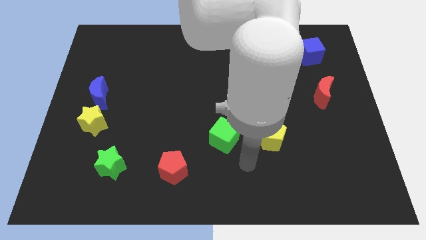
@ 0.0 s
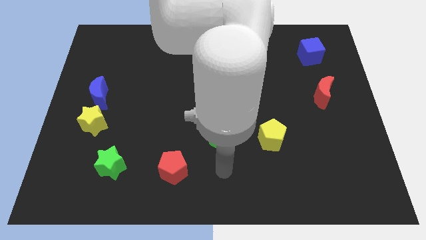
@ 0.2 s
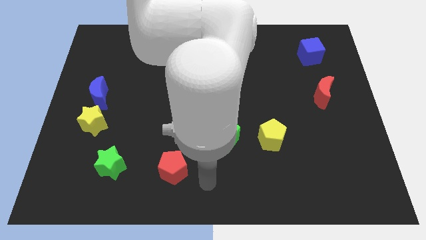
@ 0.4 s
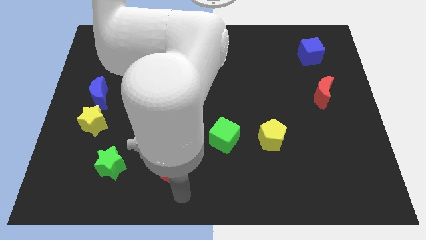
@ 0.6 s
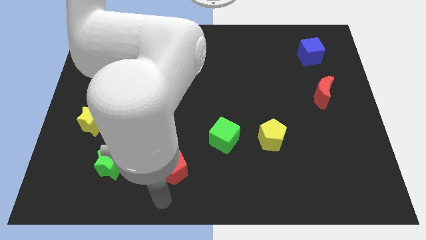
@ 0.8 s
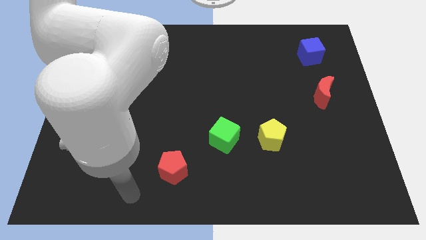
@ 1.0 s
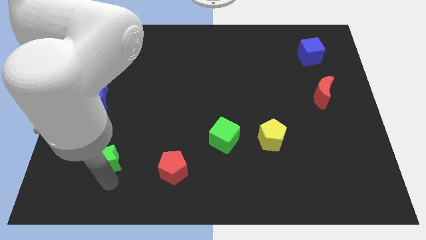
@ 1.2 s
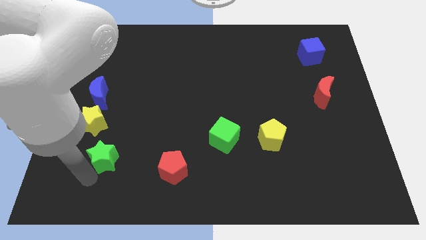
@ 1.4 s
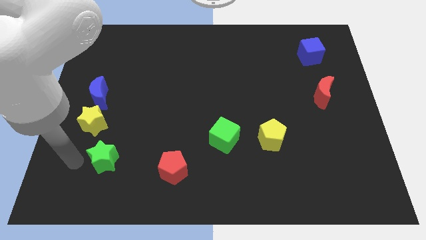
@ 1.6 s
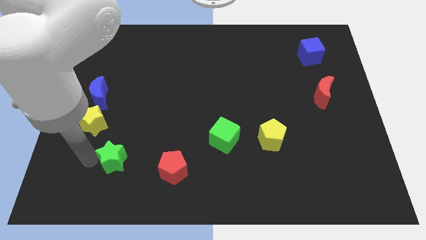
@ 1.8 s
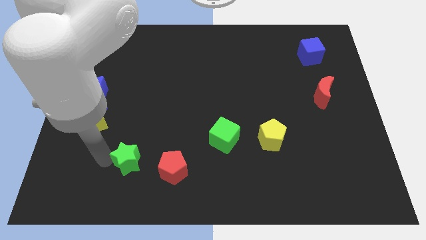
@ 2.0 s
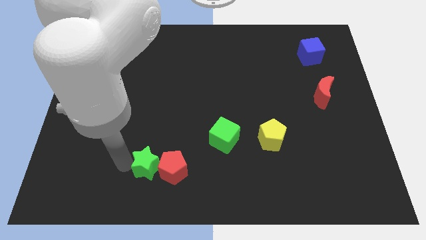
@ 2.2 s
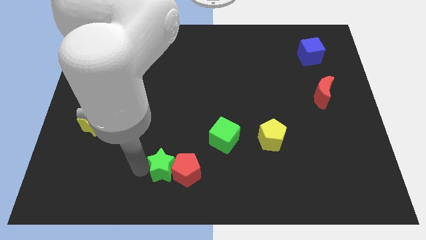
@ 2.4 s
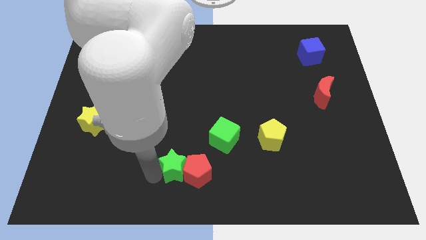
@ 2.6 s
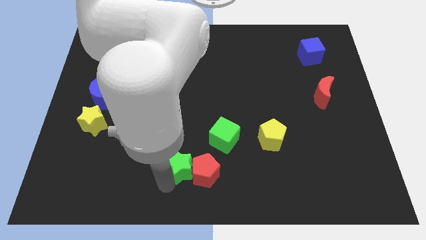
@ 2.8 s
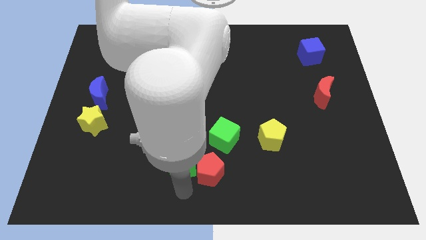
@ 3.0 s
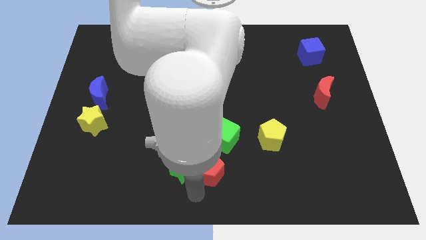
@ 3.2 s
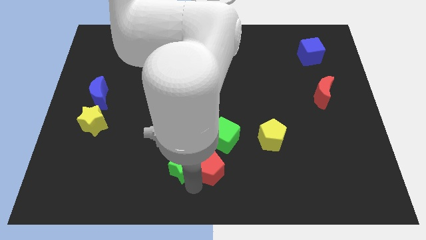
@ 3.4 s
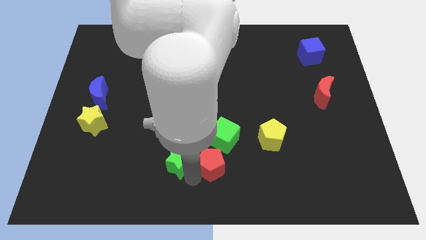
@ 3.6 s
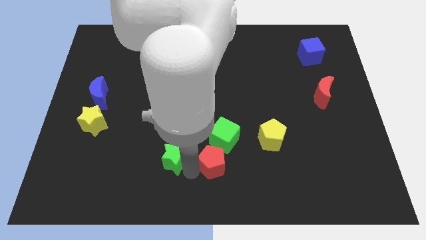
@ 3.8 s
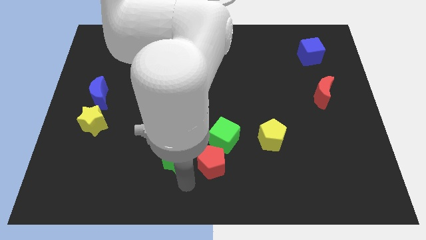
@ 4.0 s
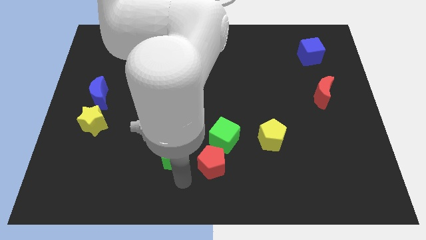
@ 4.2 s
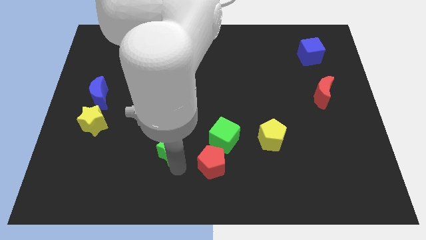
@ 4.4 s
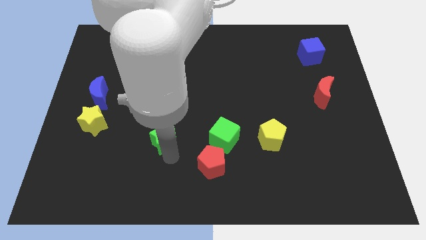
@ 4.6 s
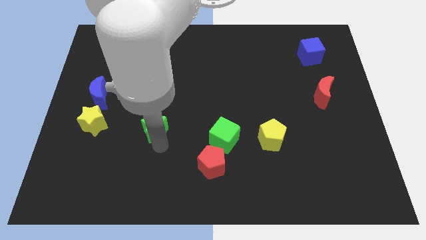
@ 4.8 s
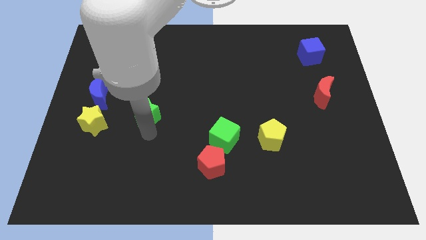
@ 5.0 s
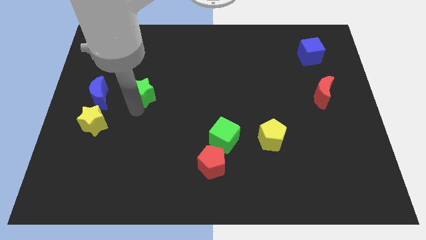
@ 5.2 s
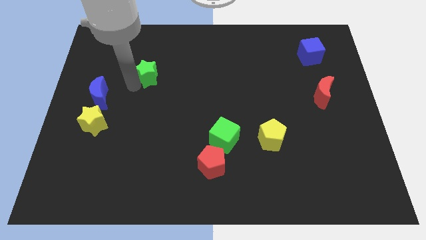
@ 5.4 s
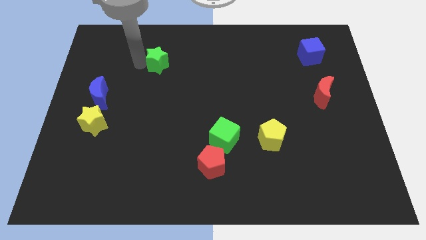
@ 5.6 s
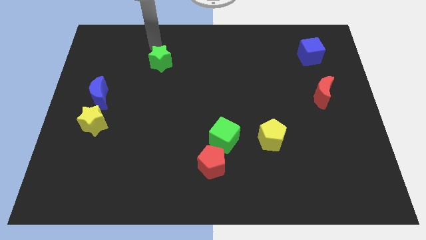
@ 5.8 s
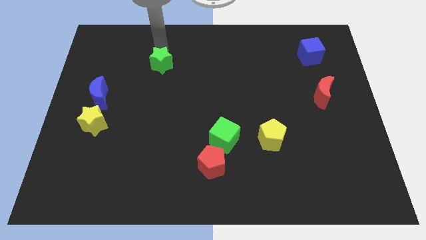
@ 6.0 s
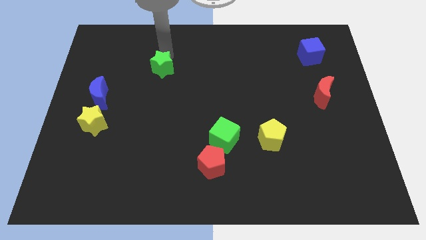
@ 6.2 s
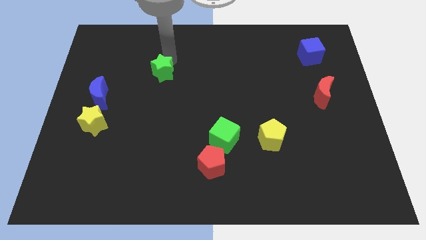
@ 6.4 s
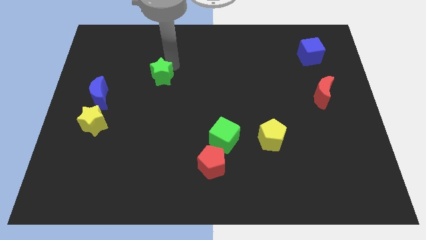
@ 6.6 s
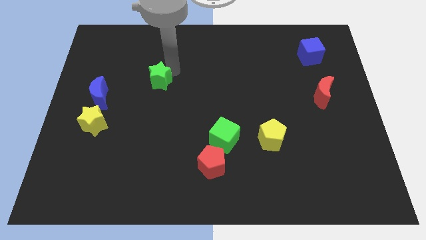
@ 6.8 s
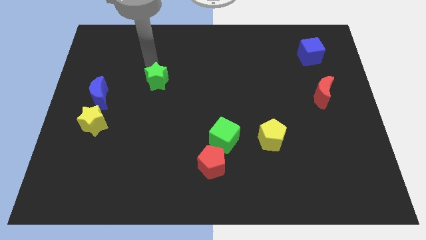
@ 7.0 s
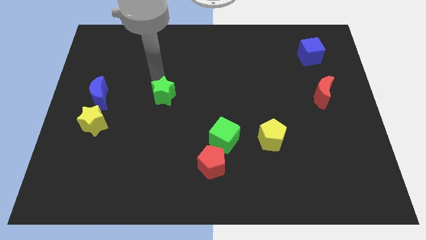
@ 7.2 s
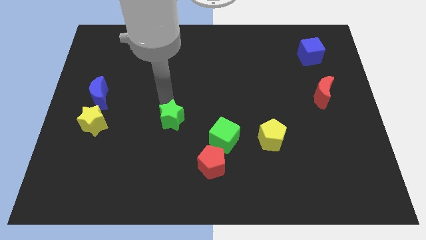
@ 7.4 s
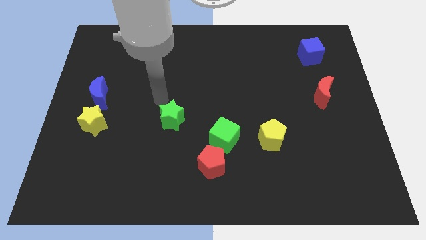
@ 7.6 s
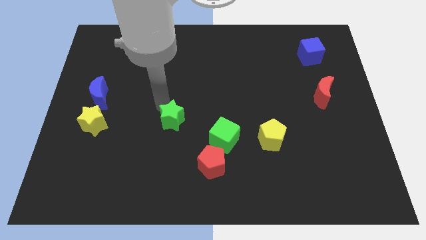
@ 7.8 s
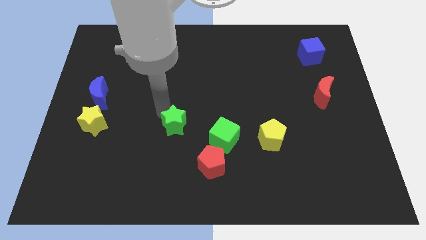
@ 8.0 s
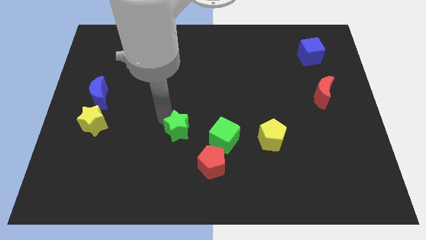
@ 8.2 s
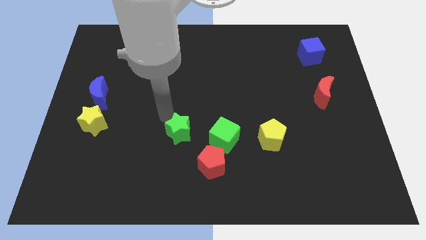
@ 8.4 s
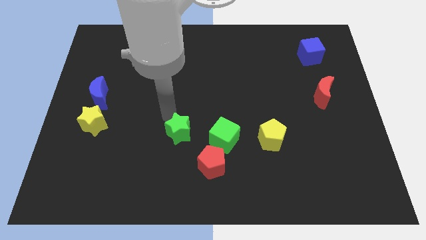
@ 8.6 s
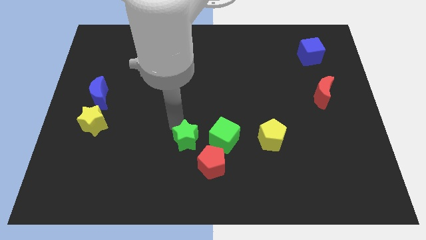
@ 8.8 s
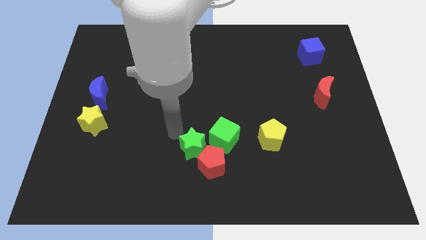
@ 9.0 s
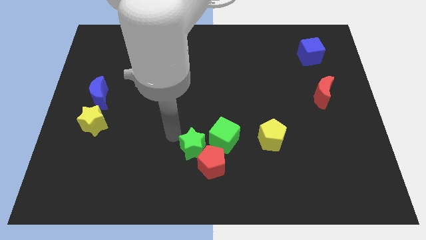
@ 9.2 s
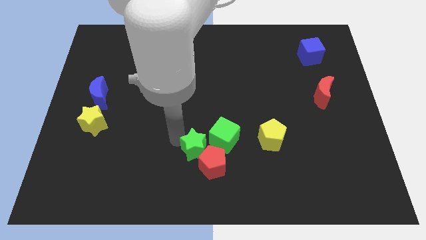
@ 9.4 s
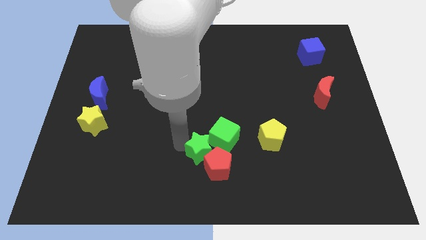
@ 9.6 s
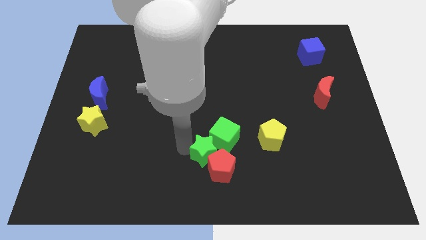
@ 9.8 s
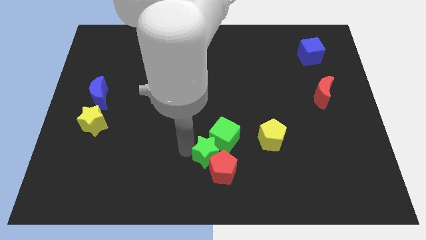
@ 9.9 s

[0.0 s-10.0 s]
move the green star right

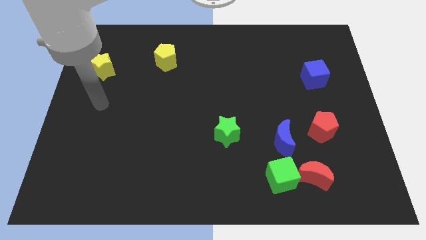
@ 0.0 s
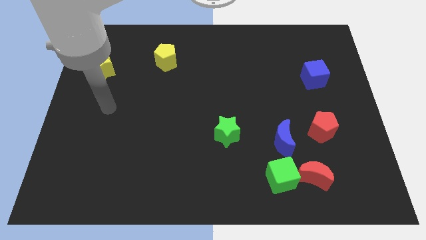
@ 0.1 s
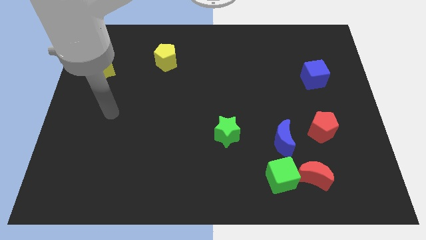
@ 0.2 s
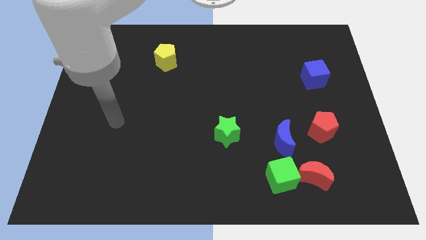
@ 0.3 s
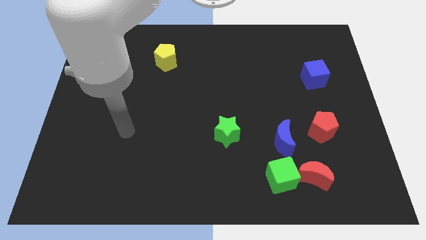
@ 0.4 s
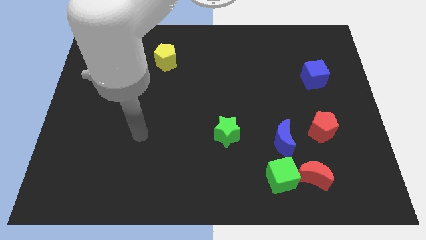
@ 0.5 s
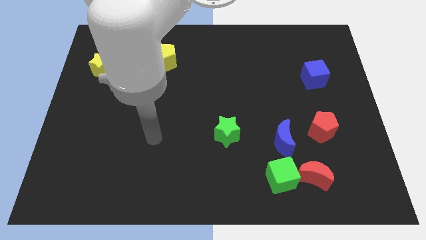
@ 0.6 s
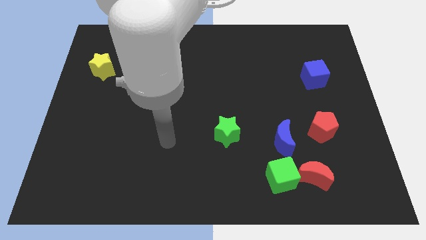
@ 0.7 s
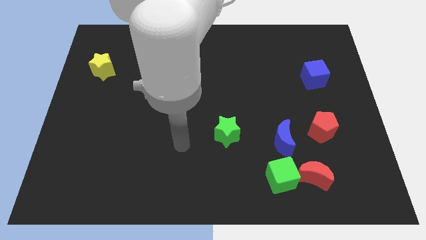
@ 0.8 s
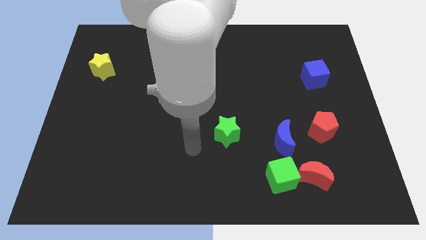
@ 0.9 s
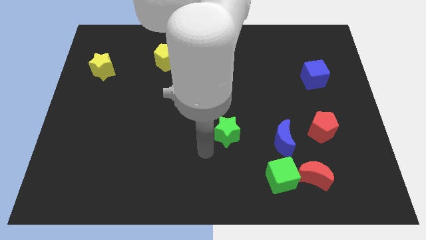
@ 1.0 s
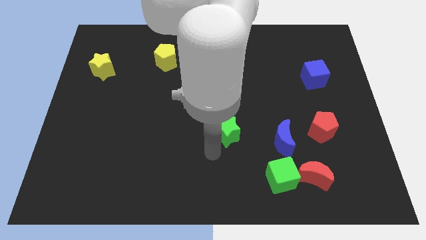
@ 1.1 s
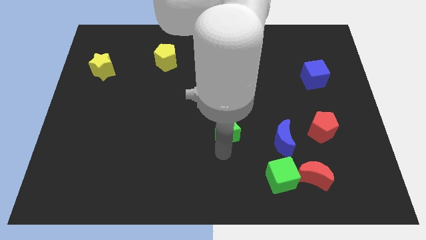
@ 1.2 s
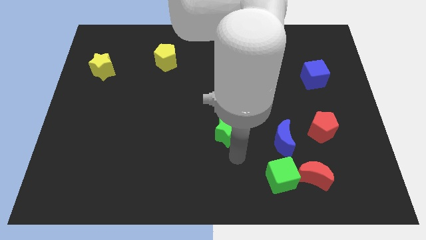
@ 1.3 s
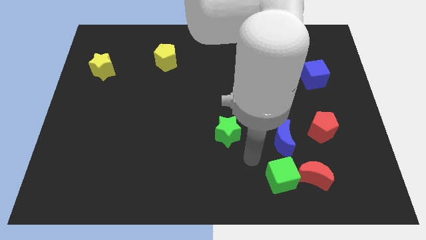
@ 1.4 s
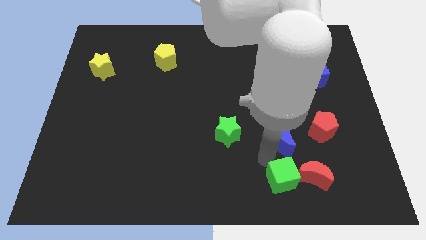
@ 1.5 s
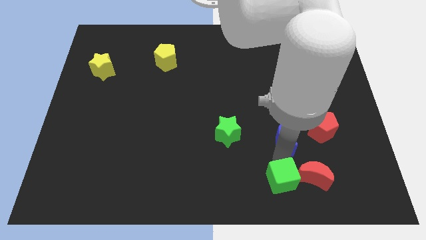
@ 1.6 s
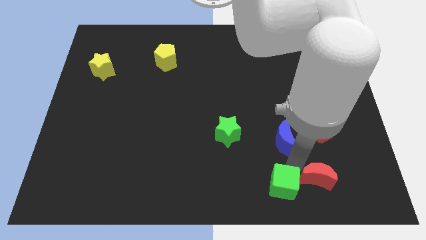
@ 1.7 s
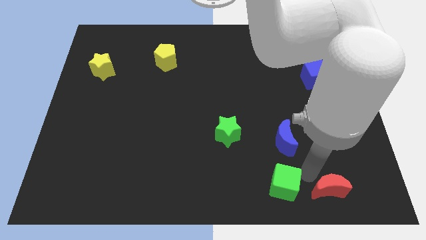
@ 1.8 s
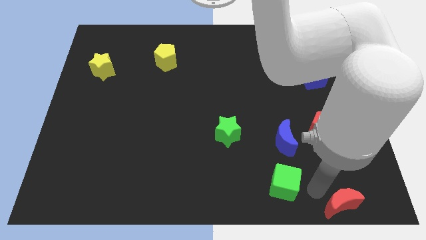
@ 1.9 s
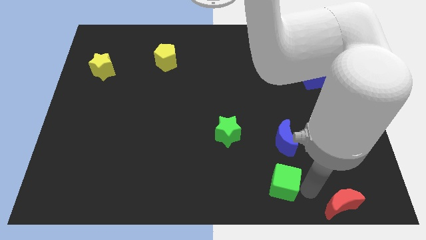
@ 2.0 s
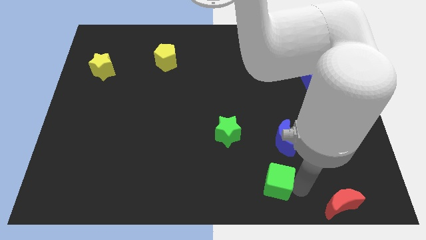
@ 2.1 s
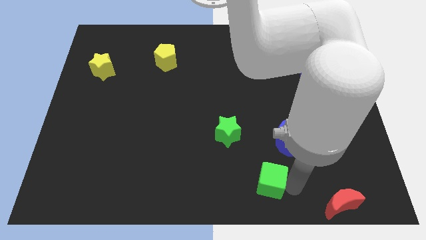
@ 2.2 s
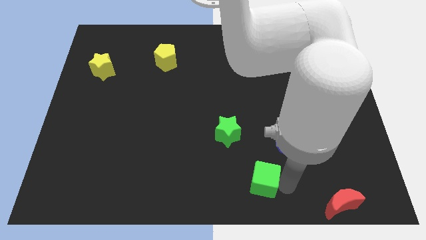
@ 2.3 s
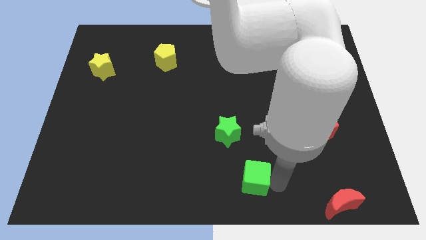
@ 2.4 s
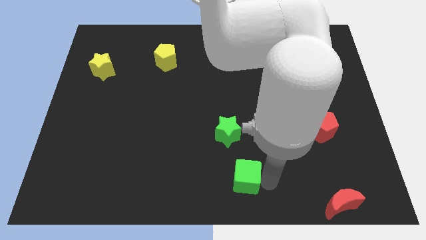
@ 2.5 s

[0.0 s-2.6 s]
slide the green cube a bit to the left

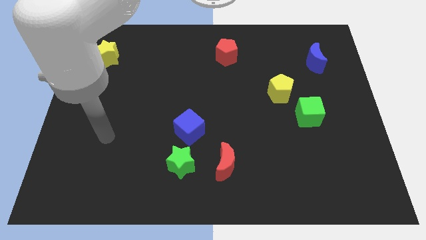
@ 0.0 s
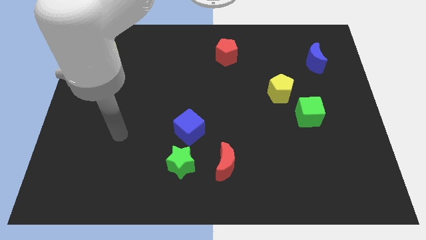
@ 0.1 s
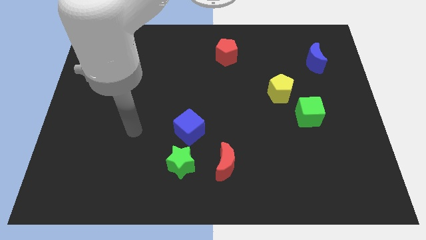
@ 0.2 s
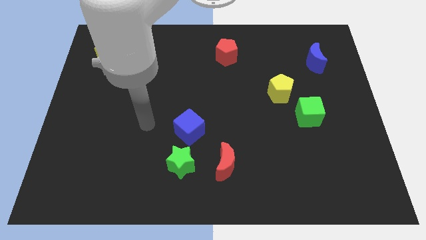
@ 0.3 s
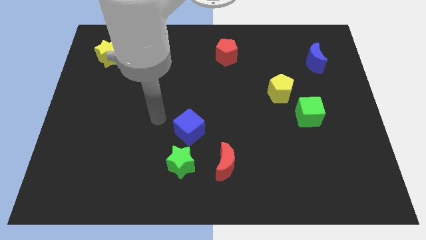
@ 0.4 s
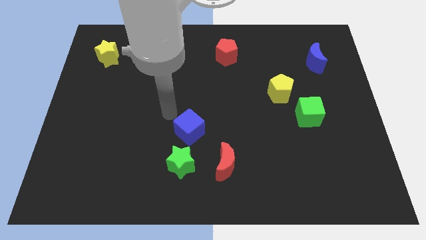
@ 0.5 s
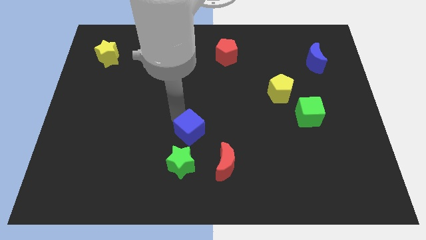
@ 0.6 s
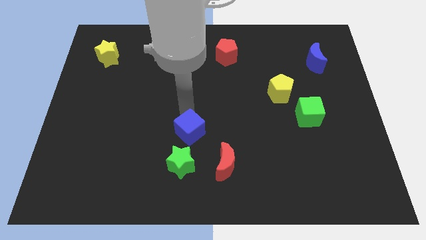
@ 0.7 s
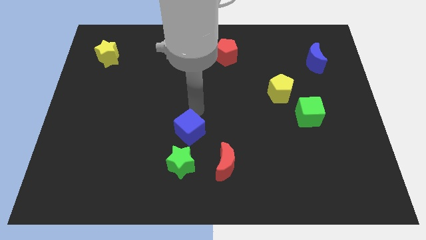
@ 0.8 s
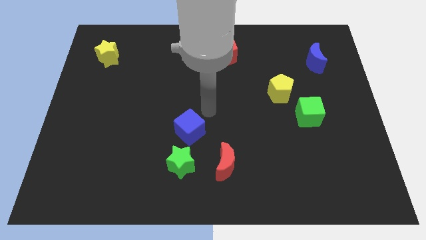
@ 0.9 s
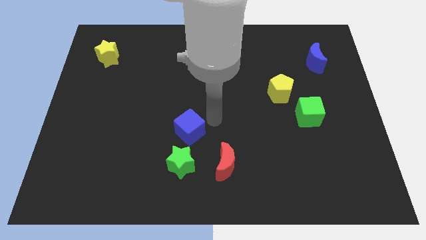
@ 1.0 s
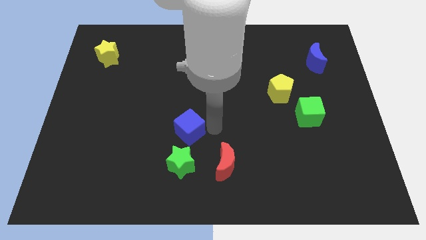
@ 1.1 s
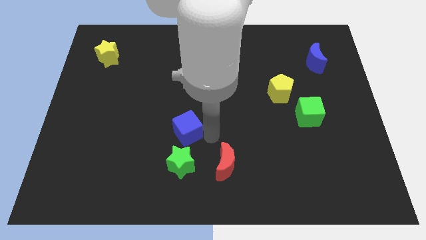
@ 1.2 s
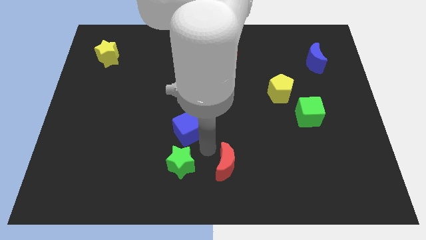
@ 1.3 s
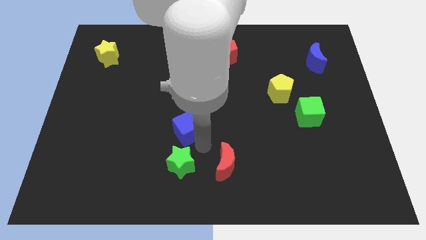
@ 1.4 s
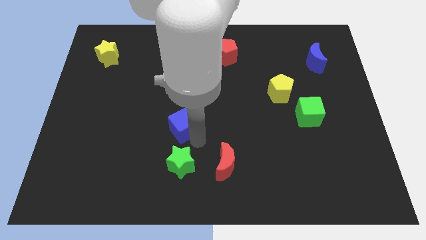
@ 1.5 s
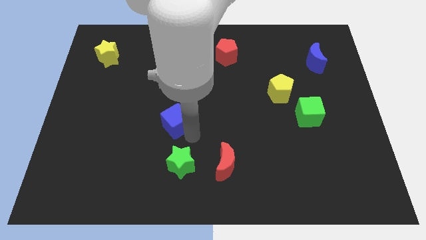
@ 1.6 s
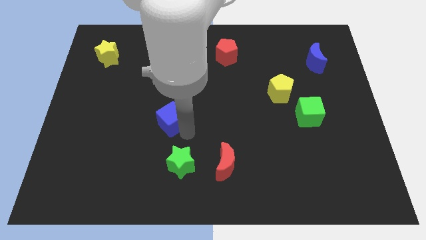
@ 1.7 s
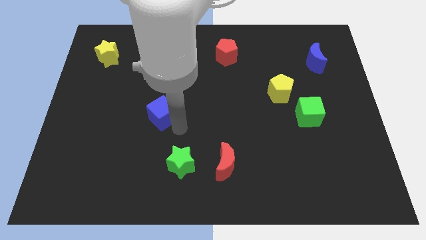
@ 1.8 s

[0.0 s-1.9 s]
slide the blue cube somewhat upwards and to the left
